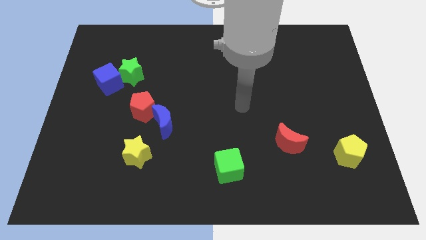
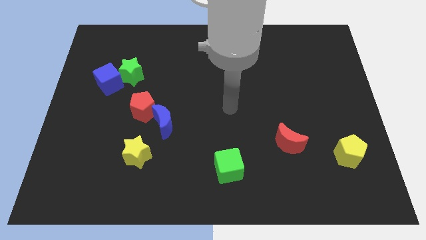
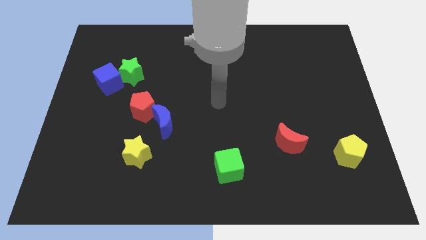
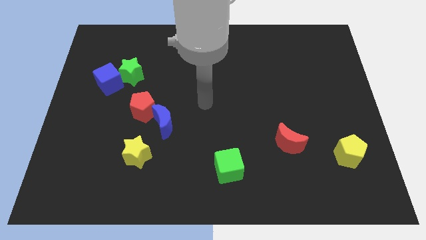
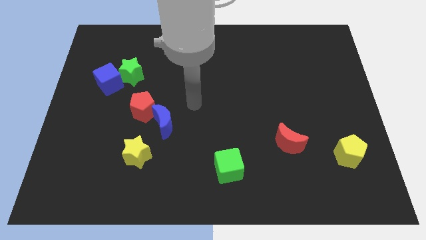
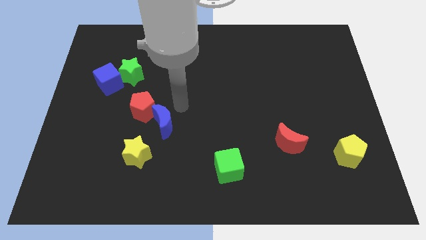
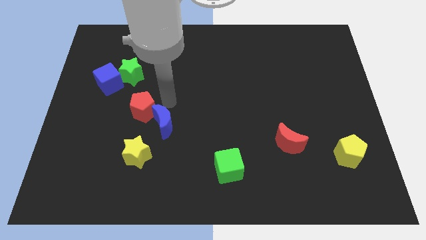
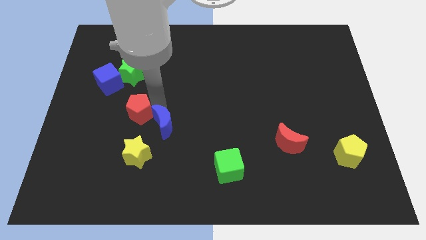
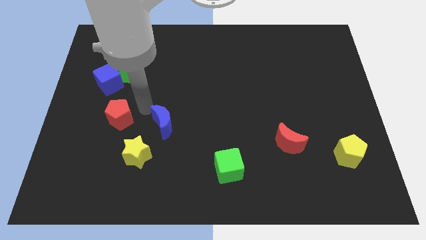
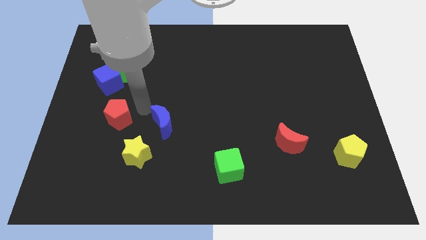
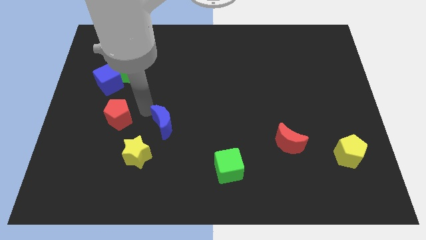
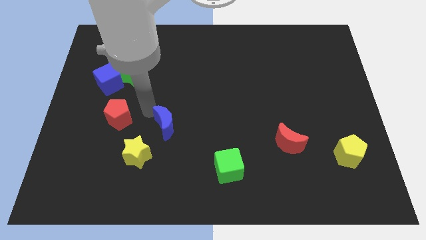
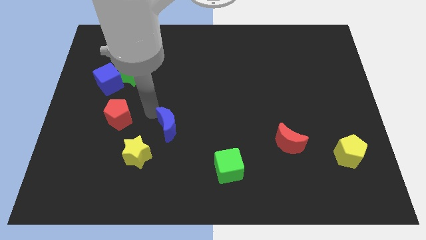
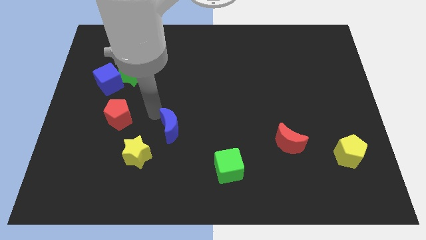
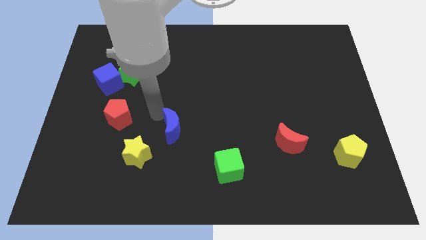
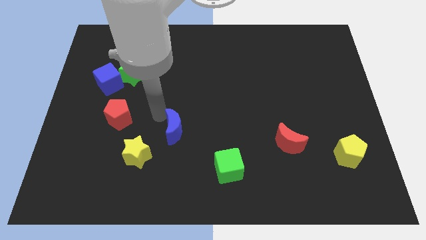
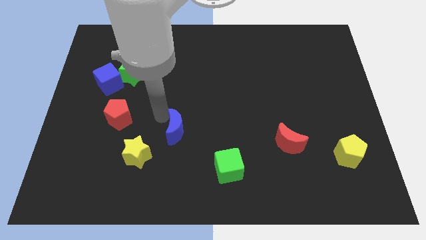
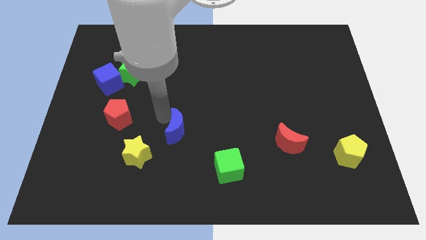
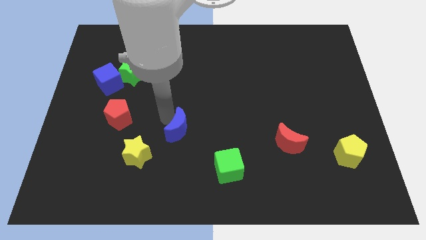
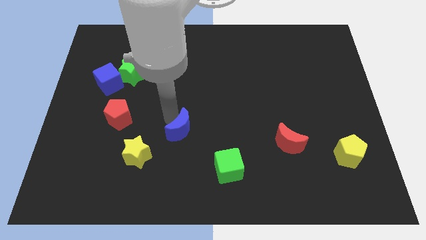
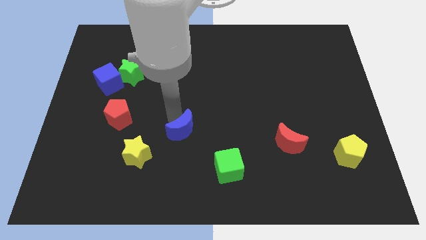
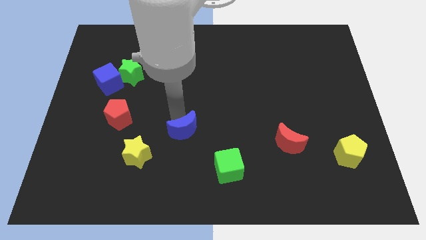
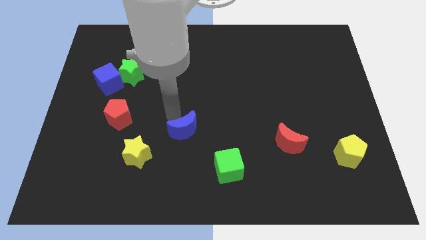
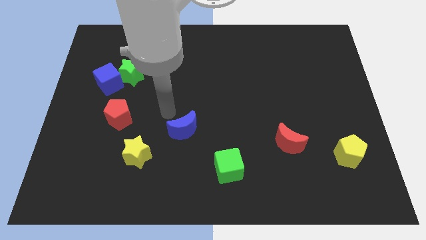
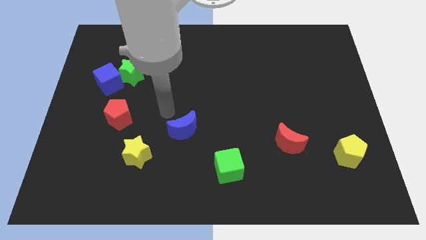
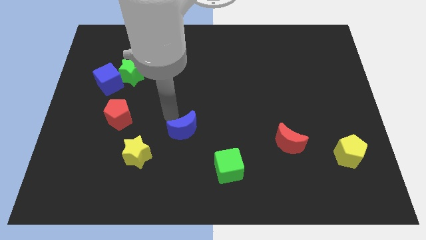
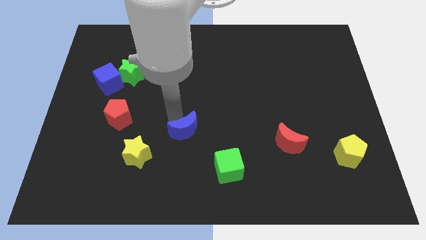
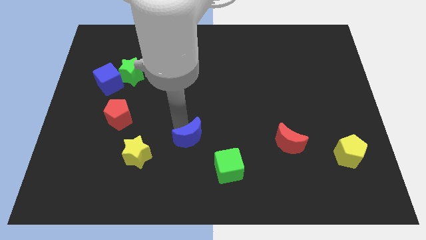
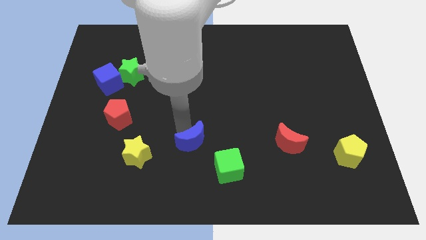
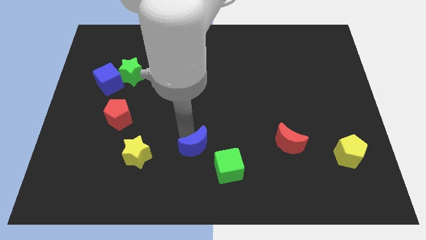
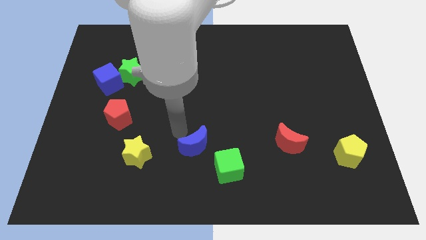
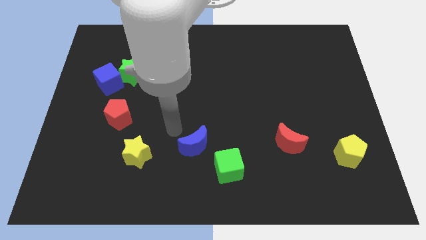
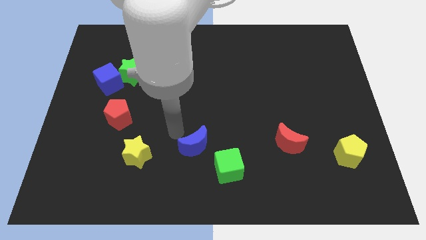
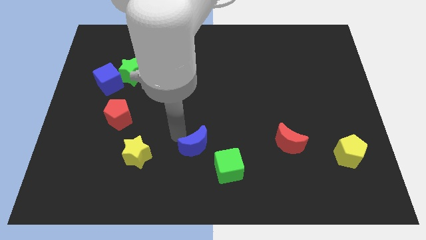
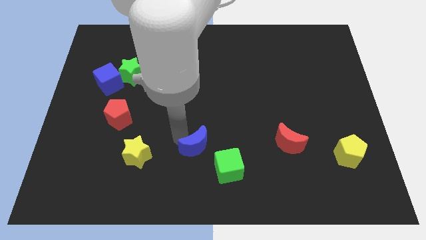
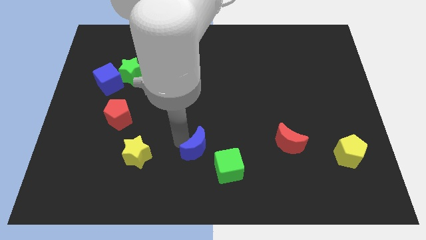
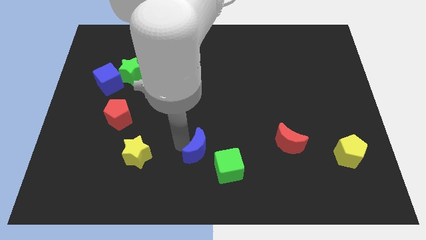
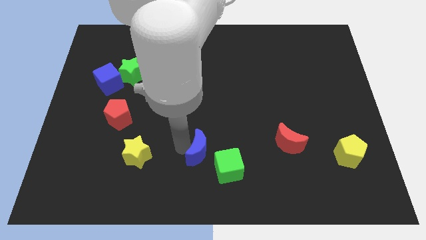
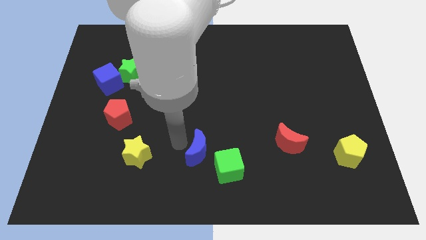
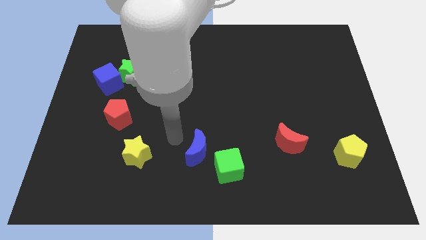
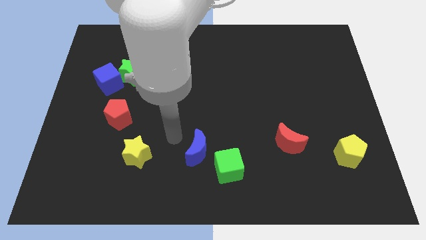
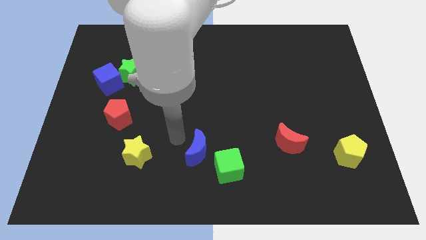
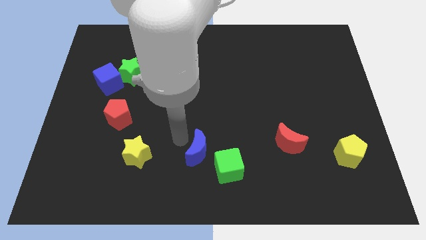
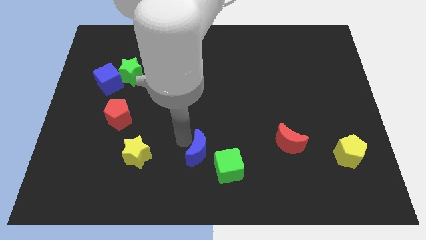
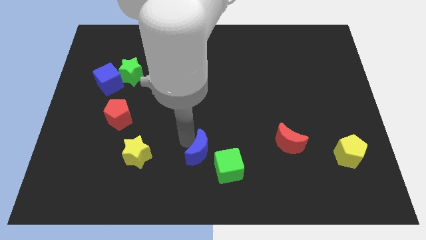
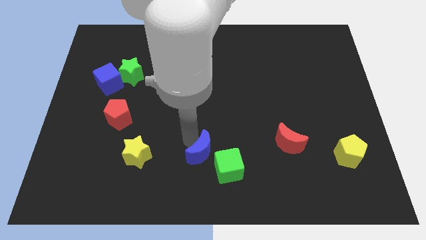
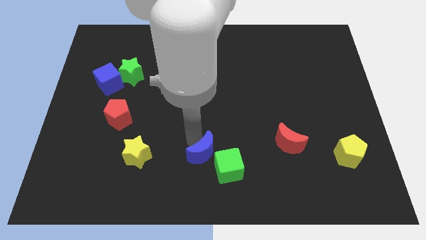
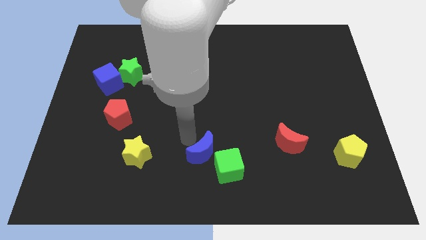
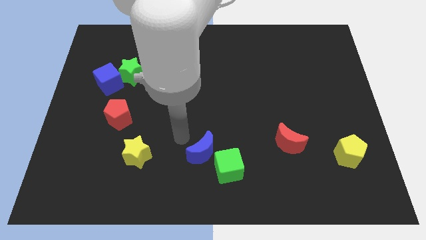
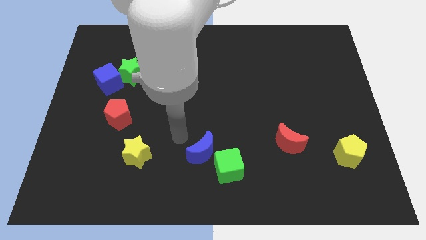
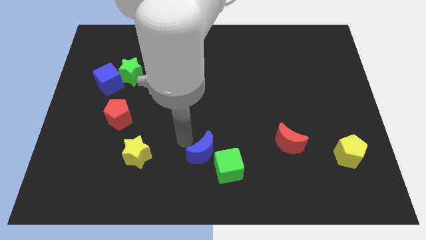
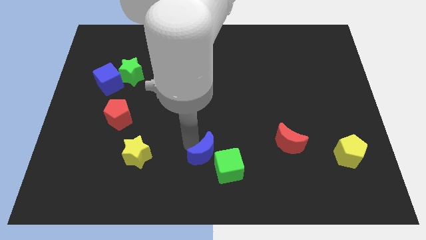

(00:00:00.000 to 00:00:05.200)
push the blue moon close to the green cube

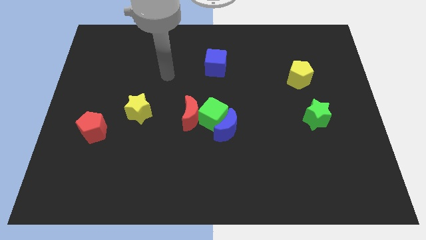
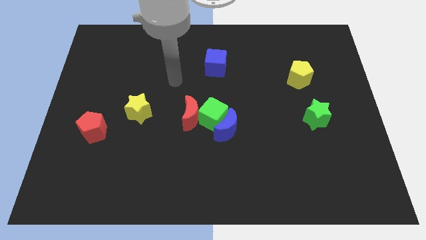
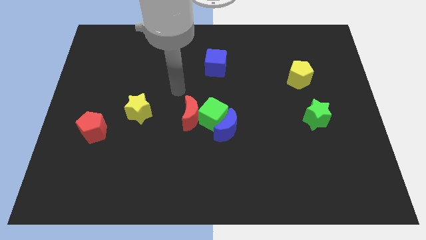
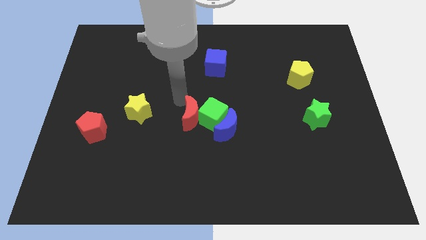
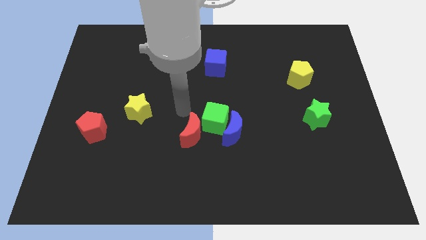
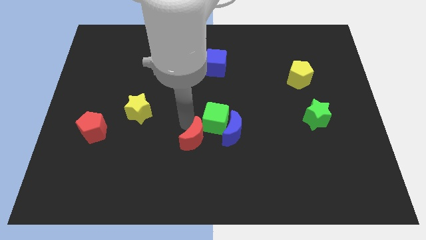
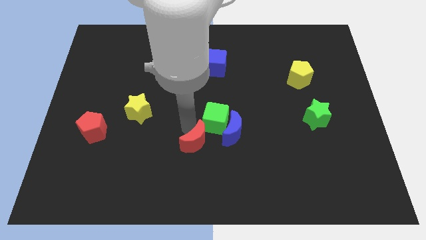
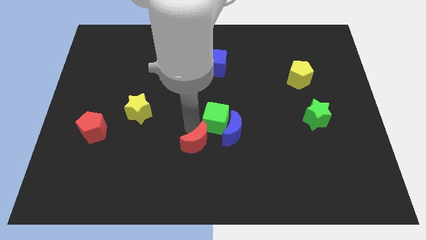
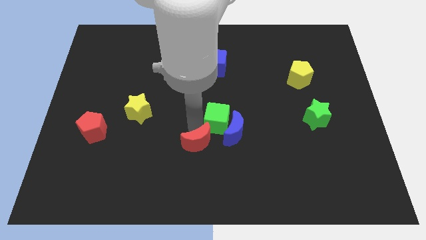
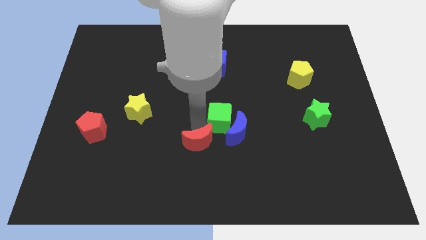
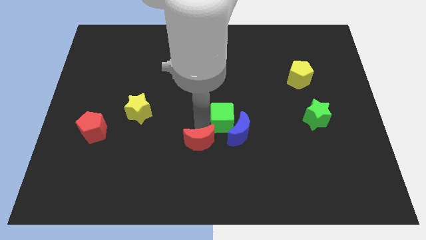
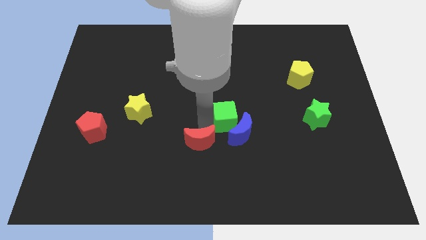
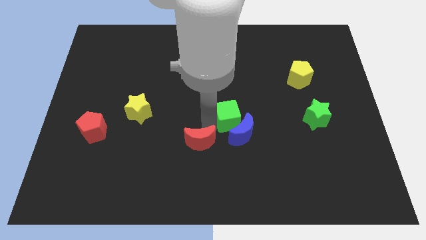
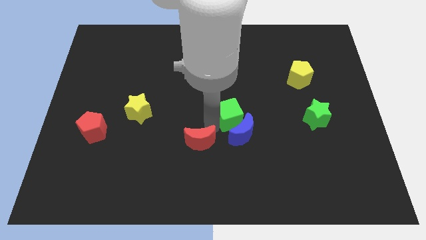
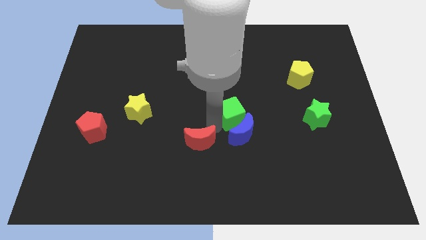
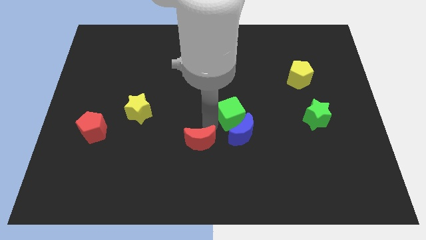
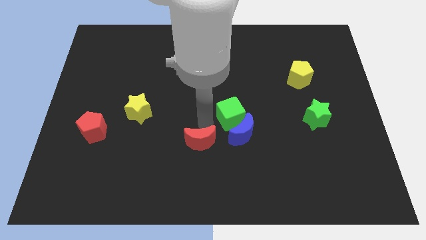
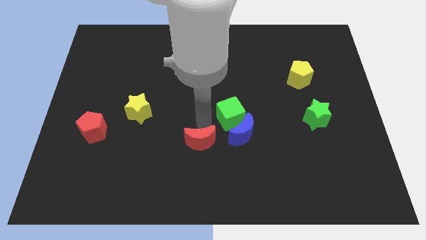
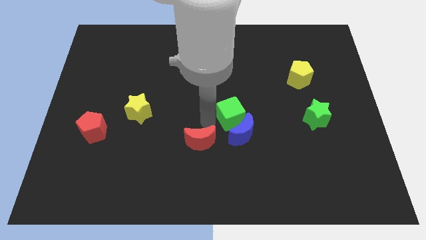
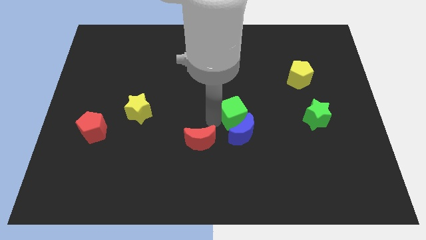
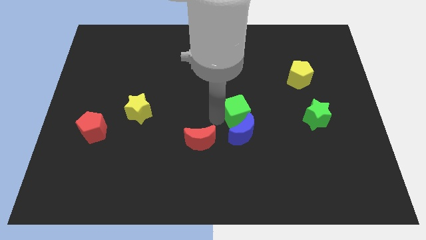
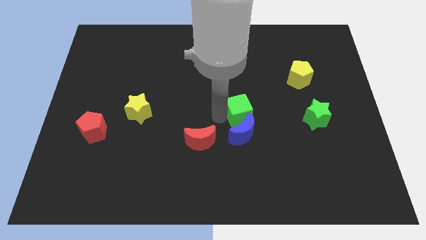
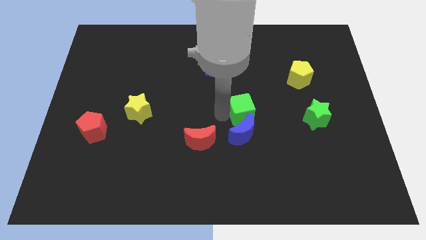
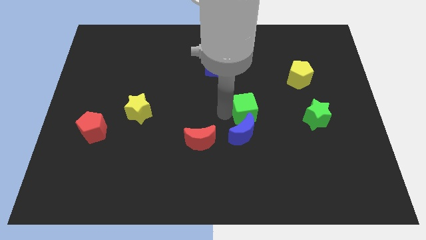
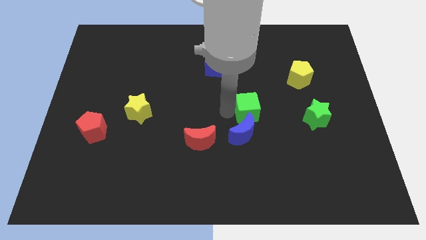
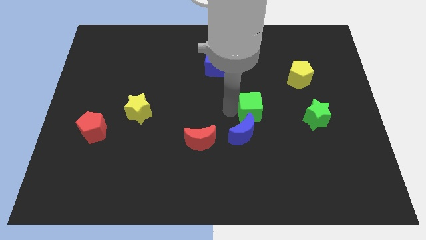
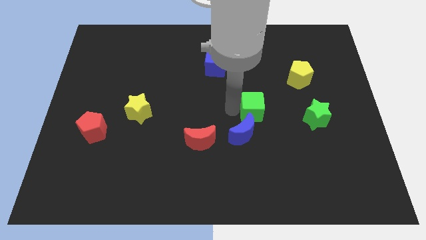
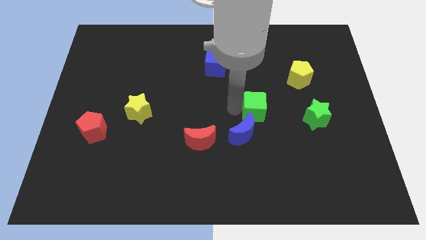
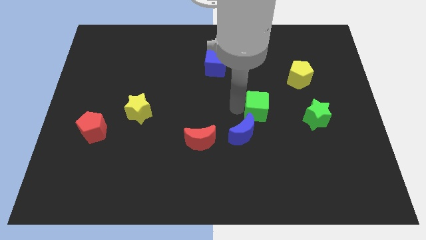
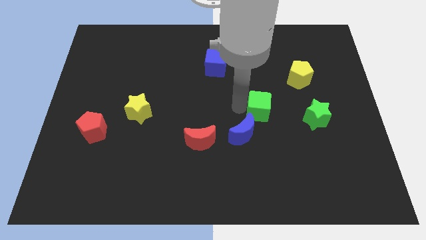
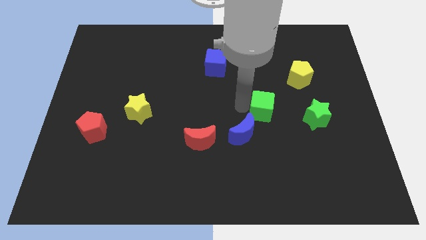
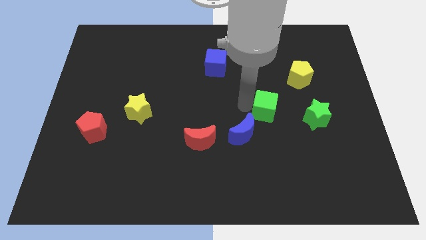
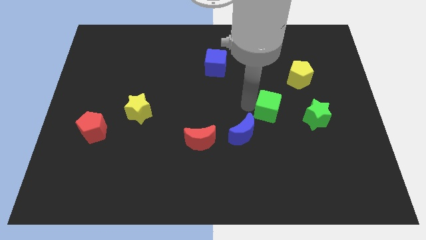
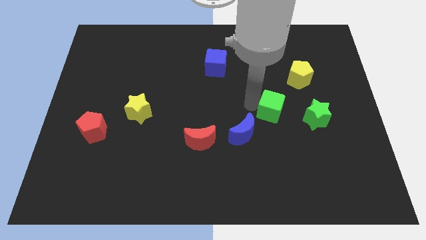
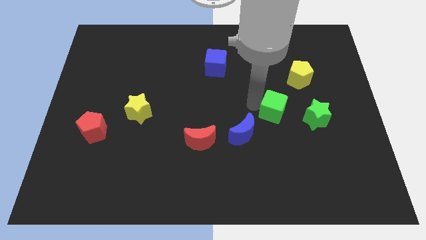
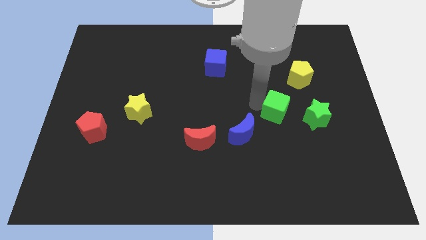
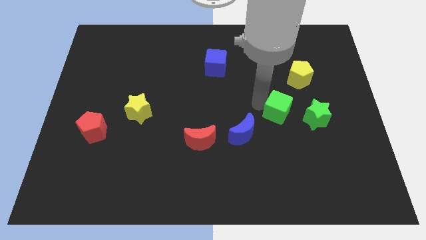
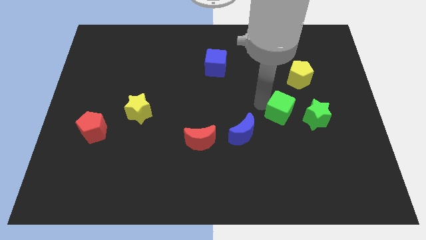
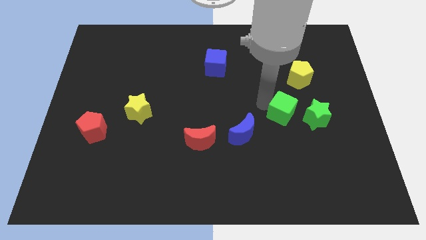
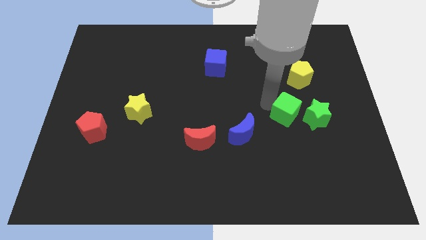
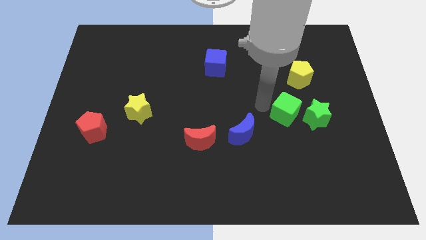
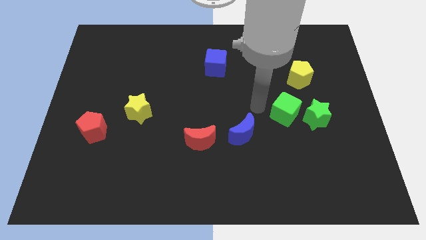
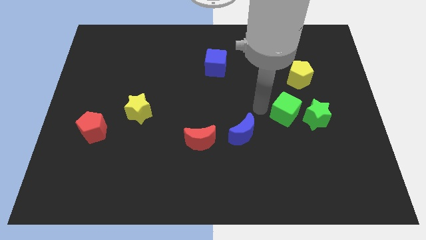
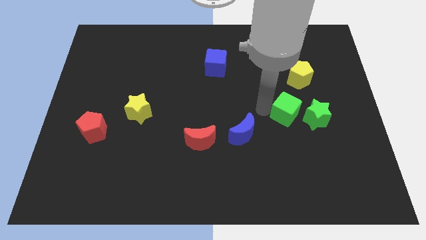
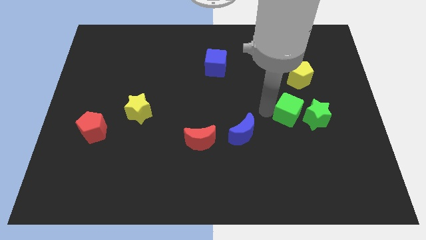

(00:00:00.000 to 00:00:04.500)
move the green cube to the green star
